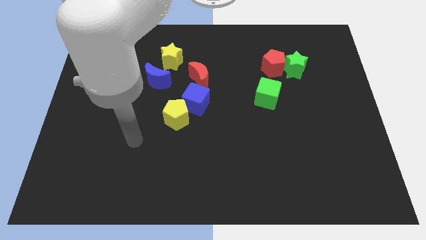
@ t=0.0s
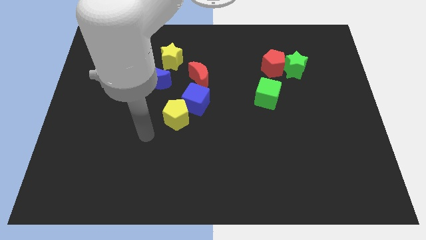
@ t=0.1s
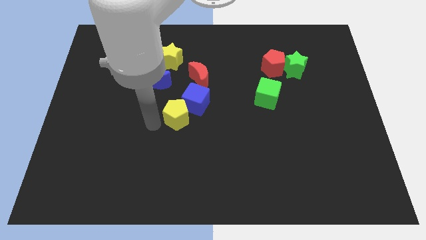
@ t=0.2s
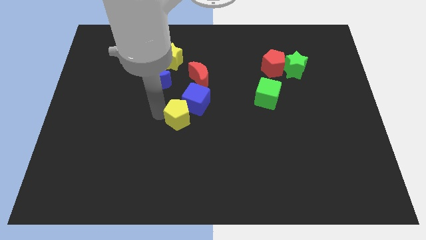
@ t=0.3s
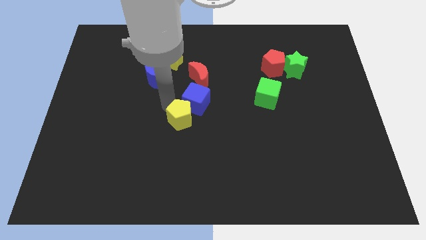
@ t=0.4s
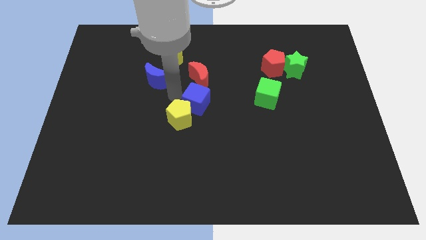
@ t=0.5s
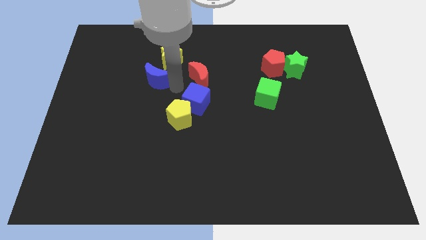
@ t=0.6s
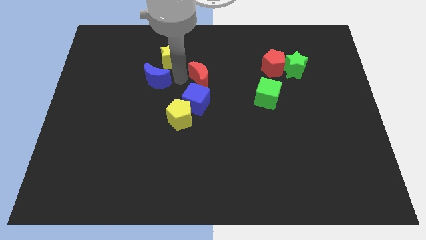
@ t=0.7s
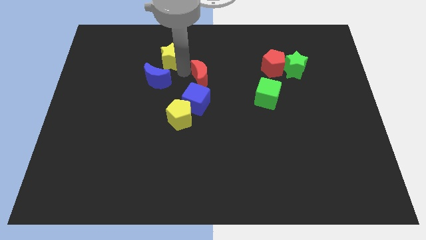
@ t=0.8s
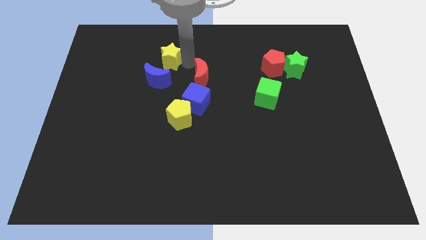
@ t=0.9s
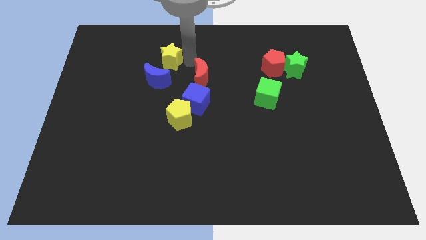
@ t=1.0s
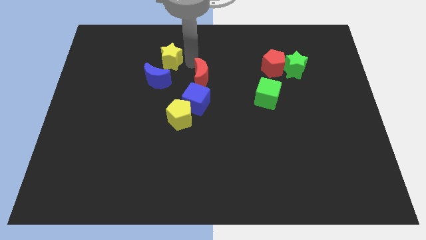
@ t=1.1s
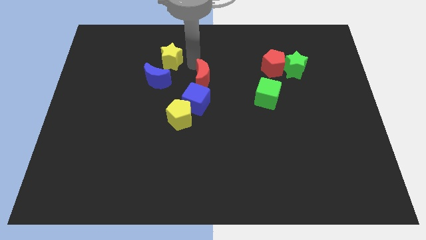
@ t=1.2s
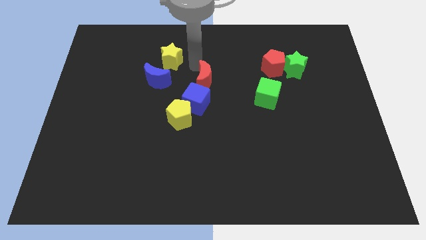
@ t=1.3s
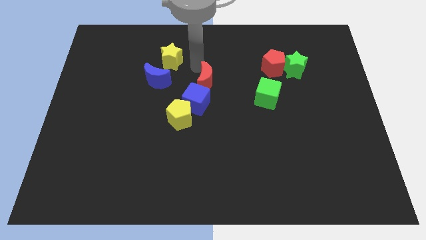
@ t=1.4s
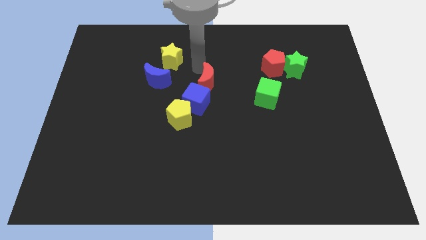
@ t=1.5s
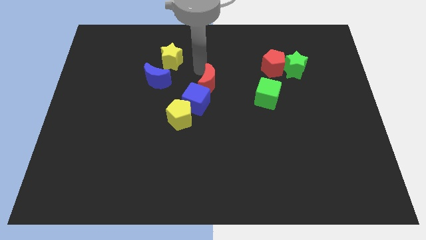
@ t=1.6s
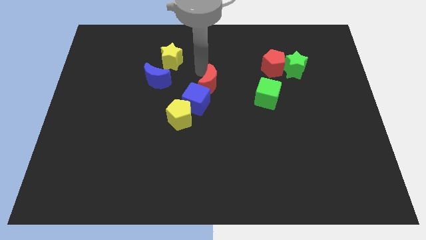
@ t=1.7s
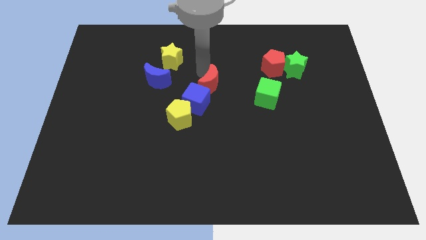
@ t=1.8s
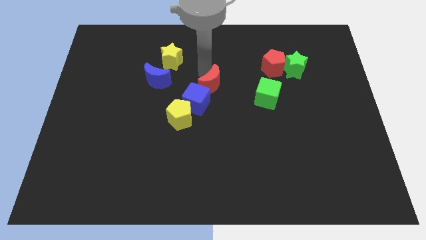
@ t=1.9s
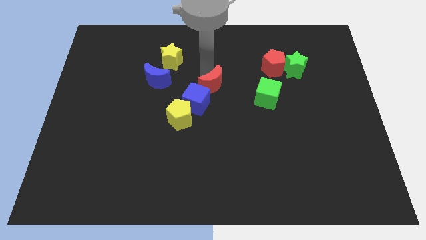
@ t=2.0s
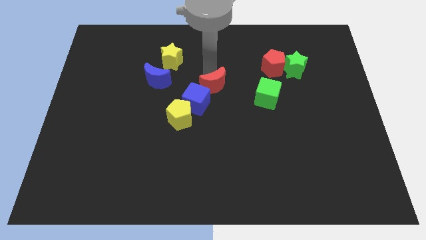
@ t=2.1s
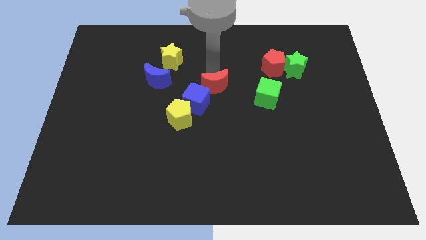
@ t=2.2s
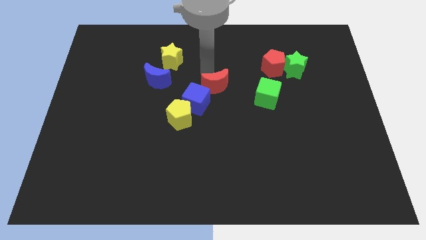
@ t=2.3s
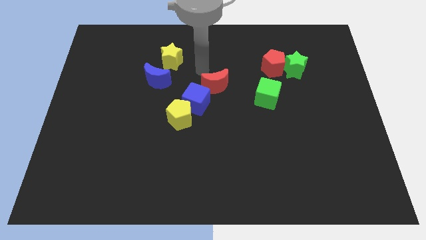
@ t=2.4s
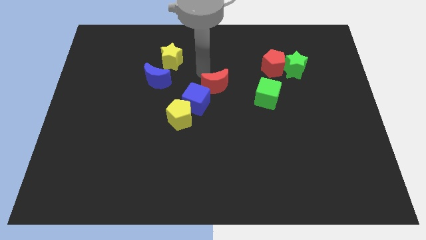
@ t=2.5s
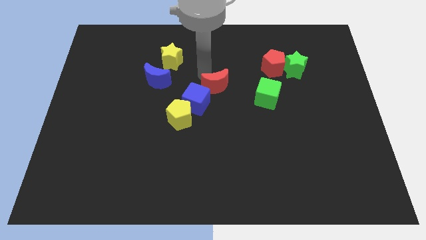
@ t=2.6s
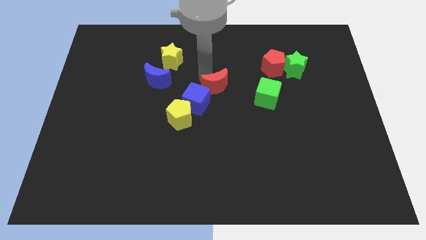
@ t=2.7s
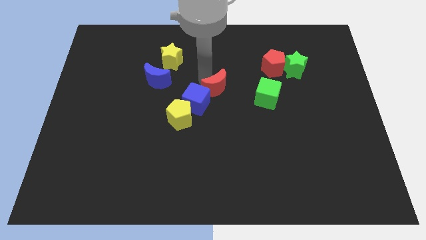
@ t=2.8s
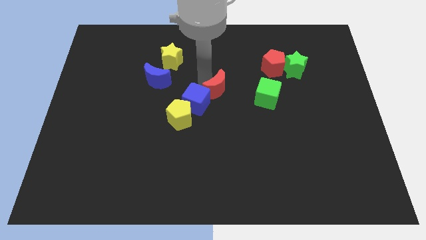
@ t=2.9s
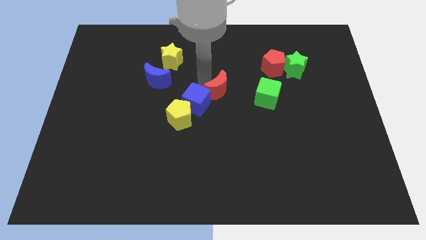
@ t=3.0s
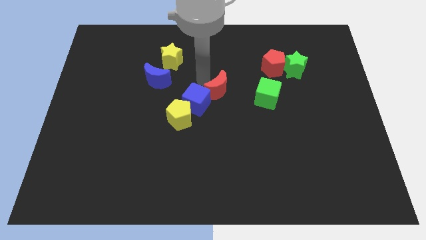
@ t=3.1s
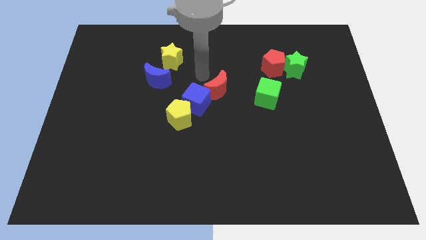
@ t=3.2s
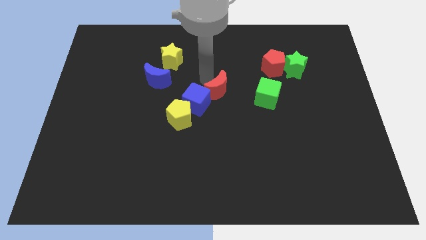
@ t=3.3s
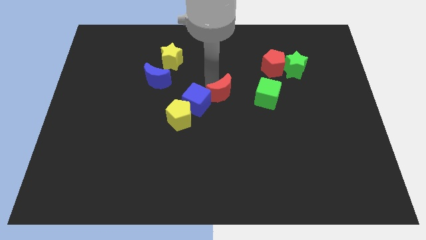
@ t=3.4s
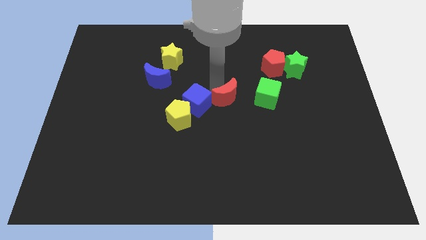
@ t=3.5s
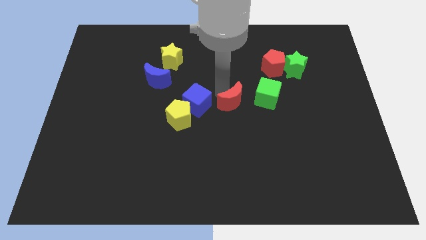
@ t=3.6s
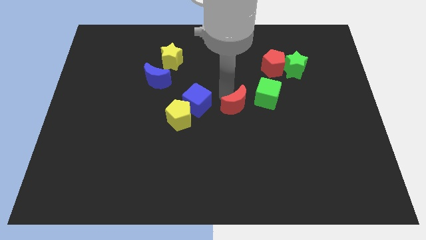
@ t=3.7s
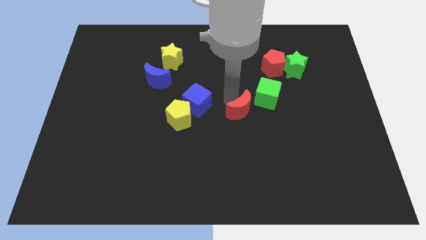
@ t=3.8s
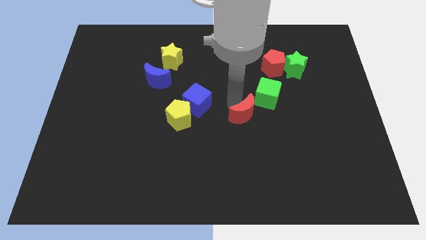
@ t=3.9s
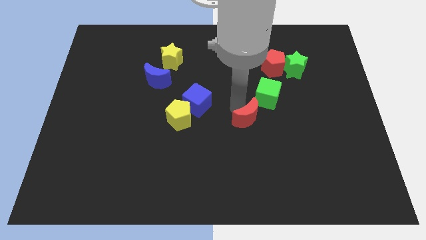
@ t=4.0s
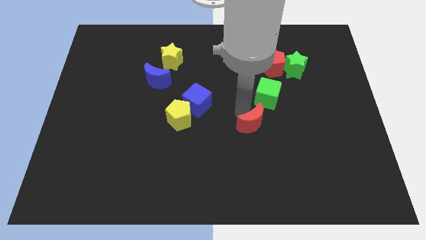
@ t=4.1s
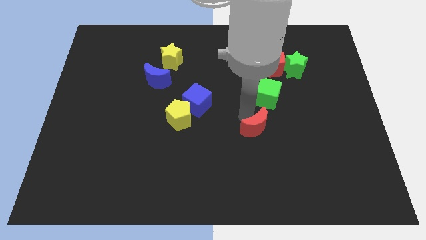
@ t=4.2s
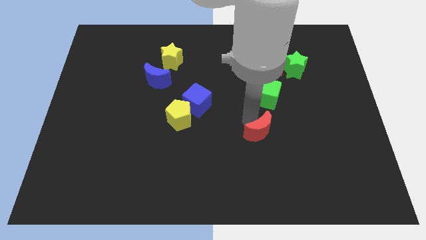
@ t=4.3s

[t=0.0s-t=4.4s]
slide the red moon down and then right

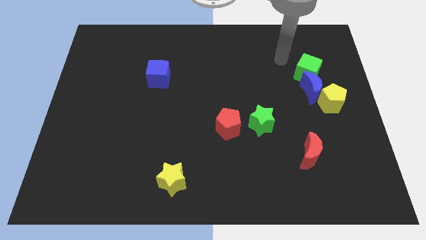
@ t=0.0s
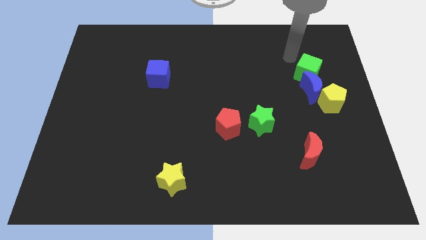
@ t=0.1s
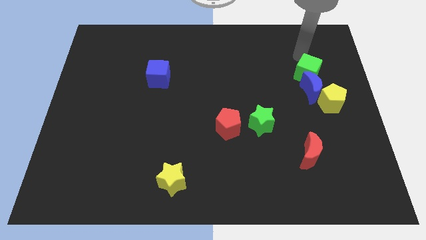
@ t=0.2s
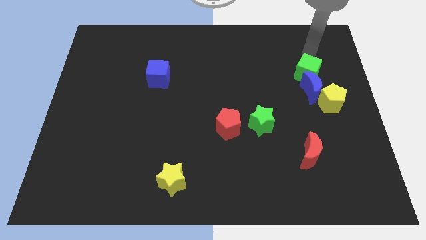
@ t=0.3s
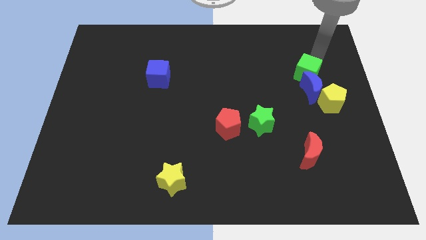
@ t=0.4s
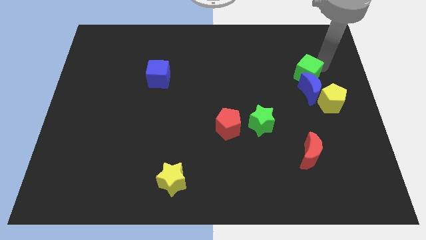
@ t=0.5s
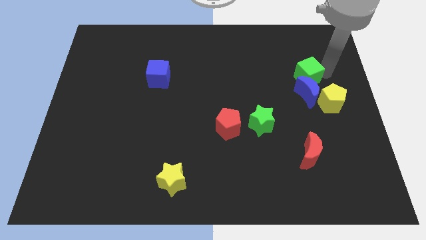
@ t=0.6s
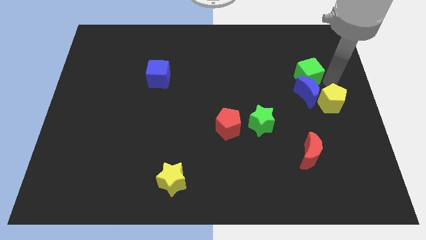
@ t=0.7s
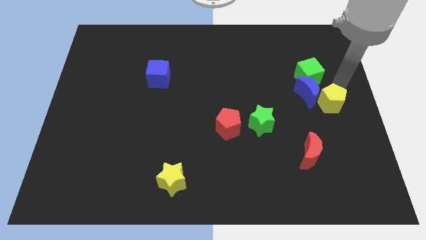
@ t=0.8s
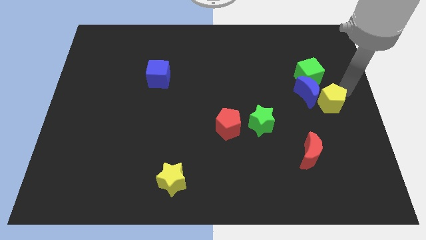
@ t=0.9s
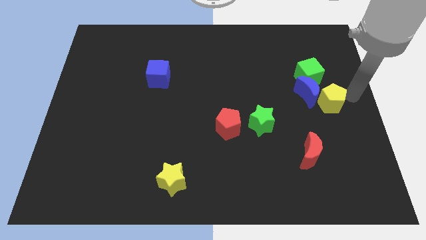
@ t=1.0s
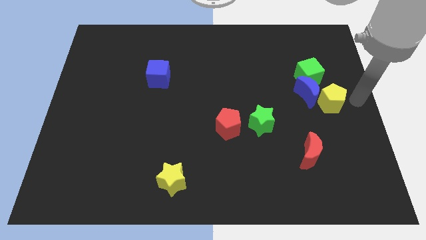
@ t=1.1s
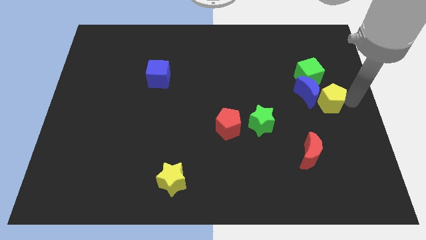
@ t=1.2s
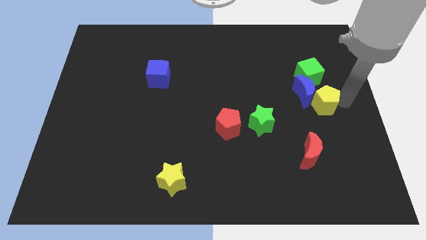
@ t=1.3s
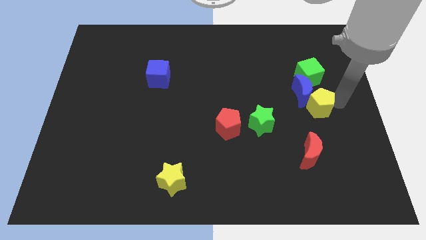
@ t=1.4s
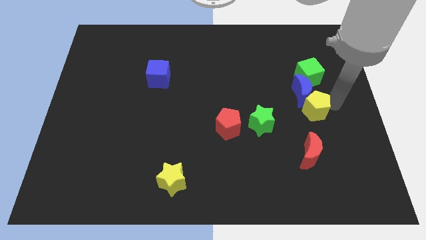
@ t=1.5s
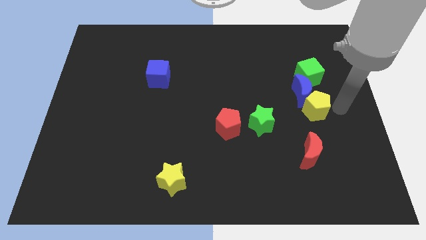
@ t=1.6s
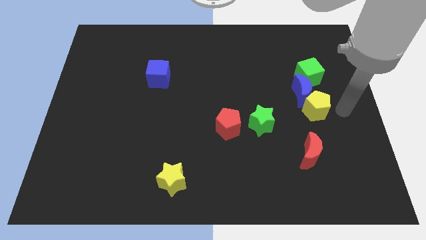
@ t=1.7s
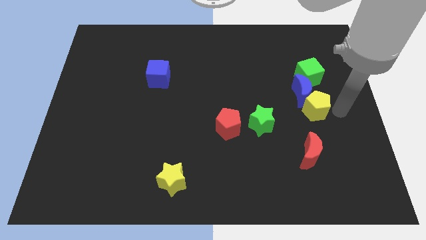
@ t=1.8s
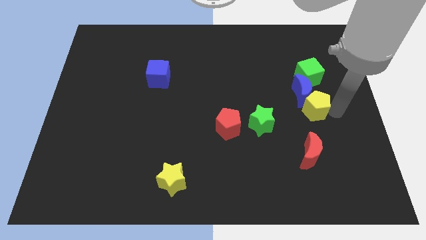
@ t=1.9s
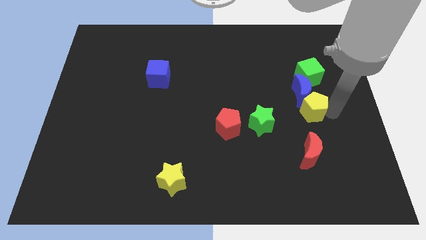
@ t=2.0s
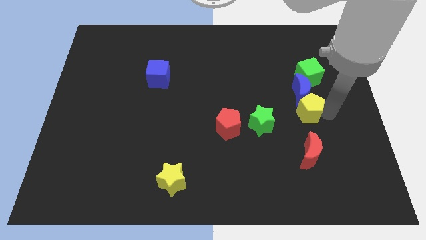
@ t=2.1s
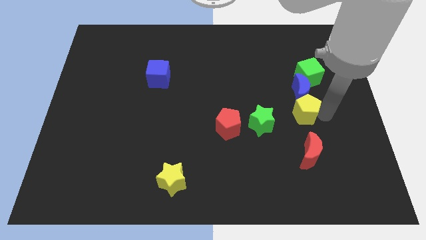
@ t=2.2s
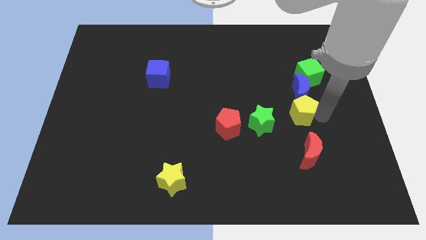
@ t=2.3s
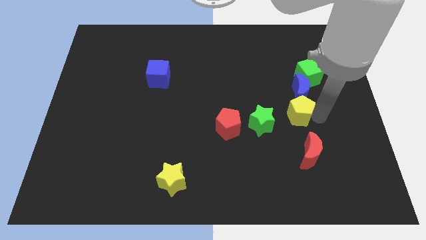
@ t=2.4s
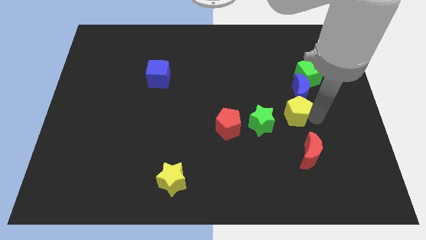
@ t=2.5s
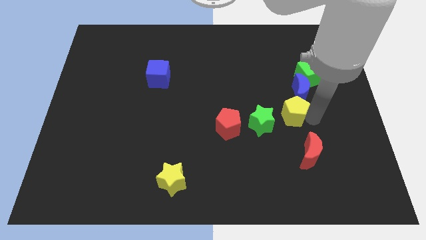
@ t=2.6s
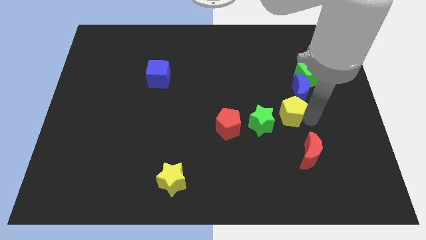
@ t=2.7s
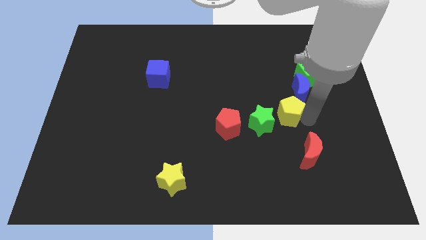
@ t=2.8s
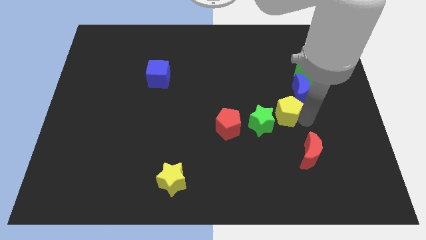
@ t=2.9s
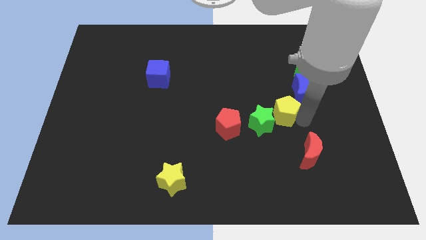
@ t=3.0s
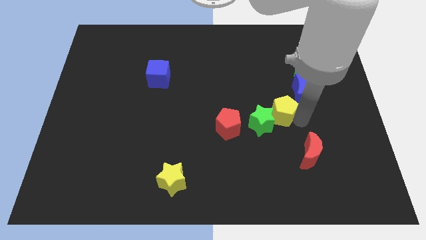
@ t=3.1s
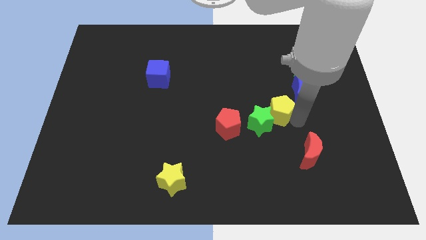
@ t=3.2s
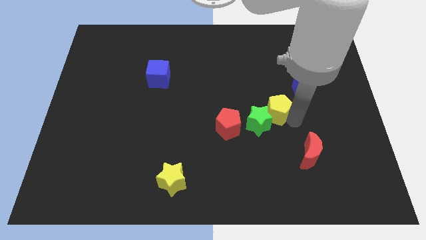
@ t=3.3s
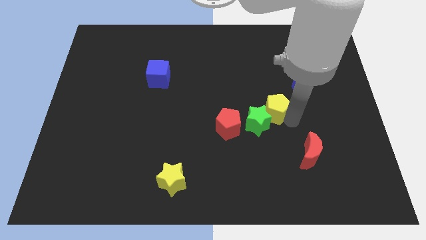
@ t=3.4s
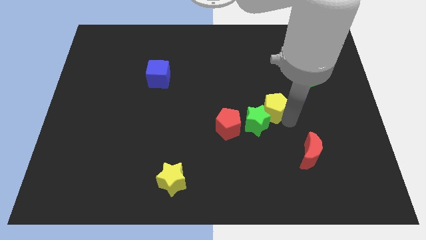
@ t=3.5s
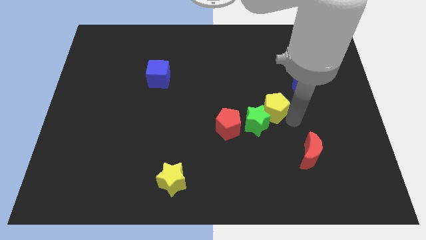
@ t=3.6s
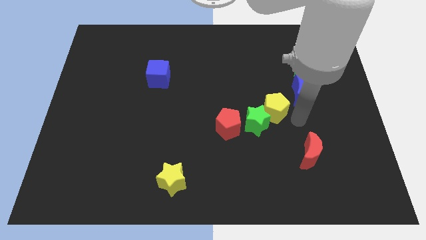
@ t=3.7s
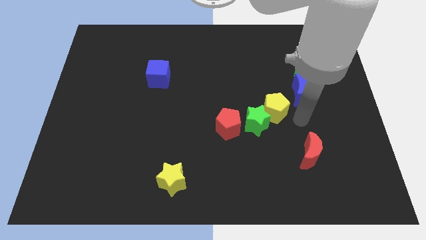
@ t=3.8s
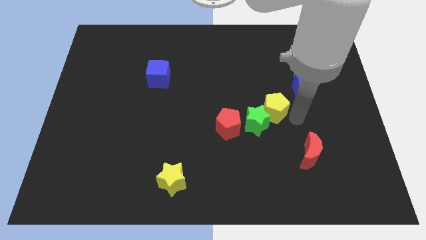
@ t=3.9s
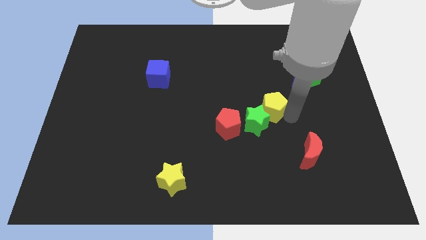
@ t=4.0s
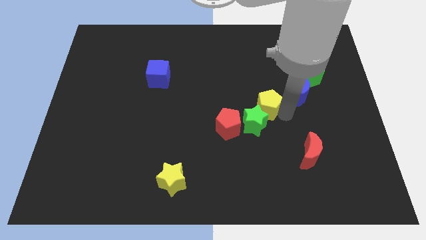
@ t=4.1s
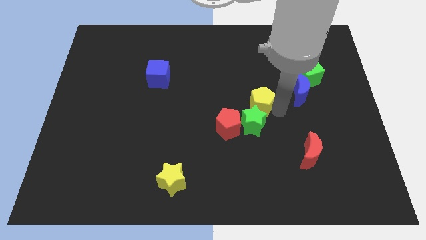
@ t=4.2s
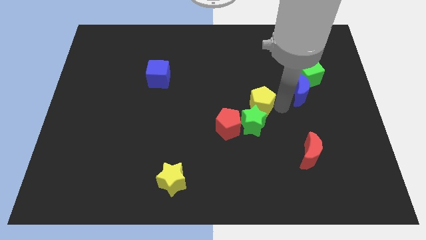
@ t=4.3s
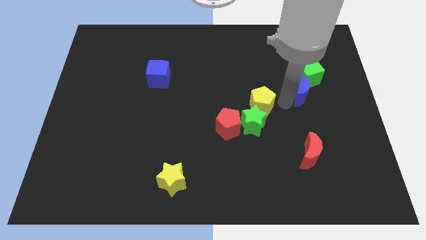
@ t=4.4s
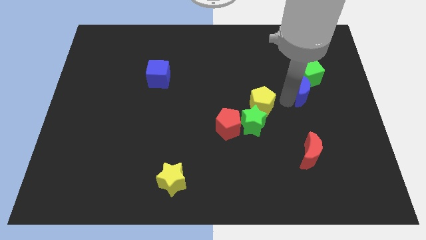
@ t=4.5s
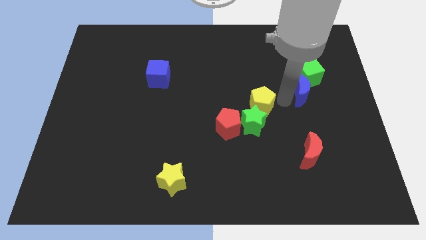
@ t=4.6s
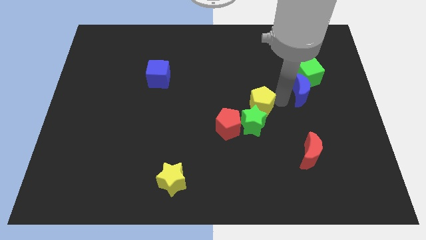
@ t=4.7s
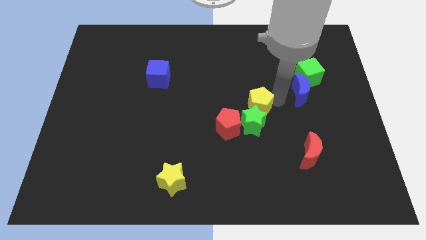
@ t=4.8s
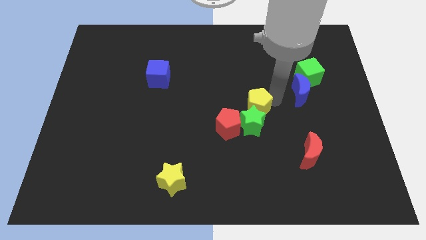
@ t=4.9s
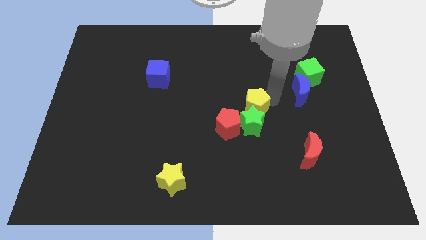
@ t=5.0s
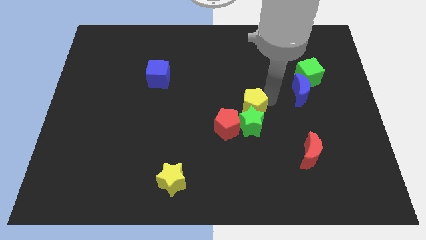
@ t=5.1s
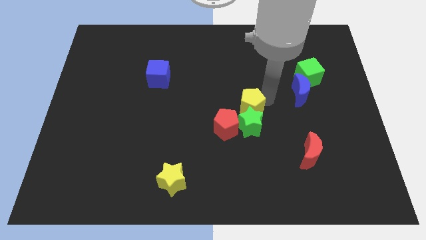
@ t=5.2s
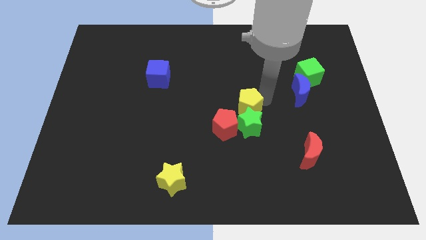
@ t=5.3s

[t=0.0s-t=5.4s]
slide the yellow pentagon left
